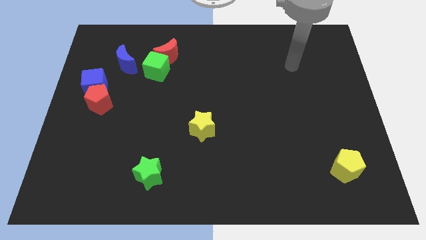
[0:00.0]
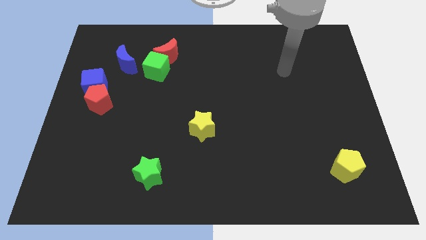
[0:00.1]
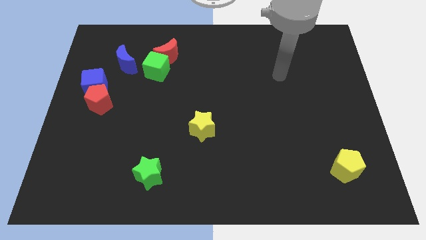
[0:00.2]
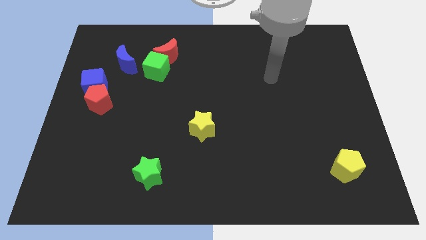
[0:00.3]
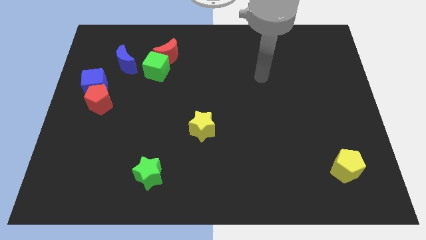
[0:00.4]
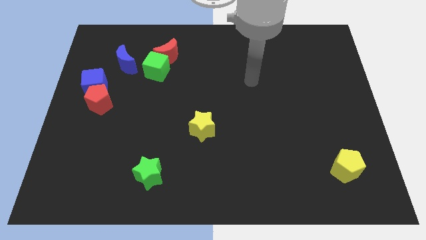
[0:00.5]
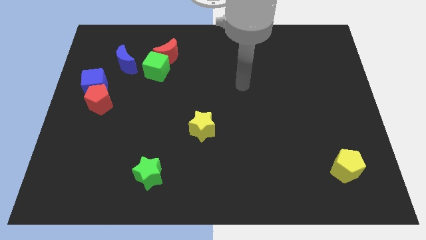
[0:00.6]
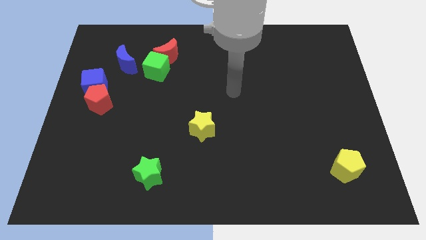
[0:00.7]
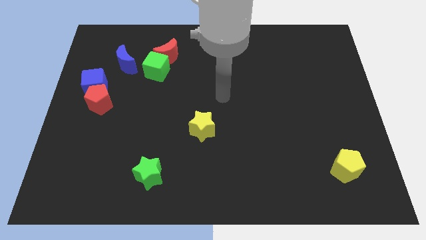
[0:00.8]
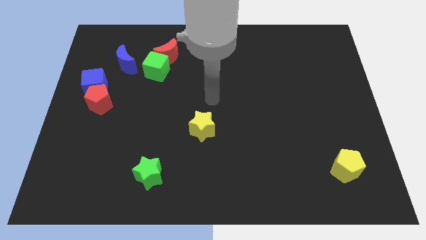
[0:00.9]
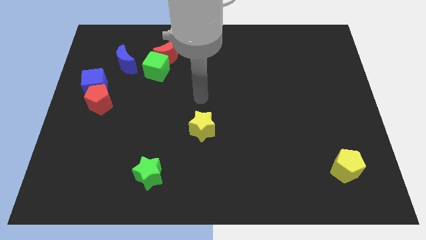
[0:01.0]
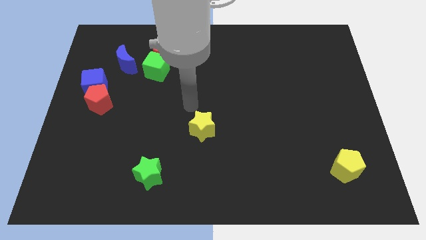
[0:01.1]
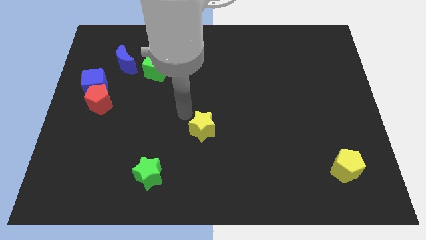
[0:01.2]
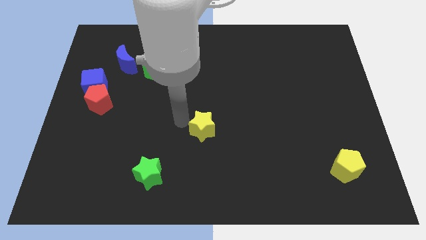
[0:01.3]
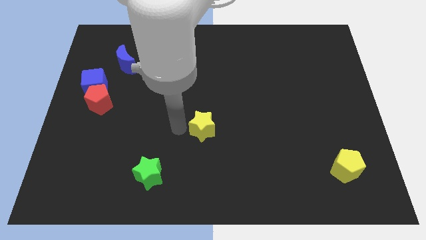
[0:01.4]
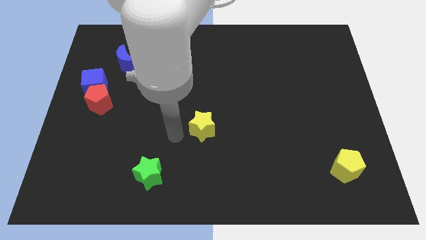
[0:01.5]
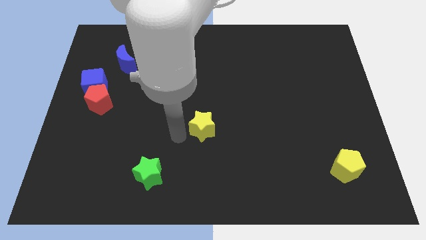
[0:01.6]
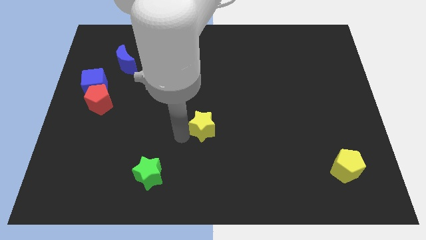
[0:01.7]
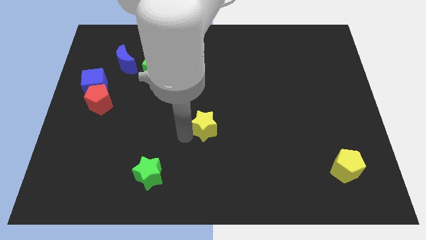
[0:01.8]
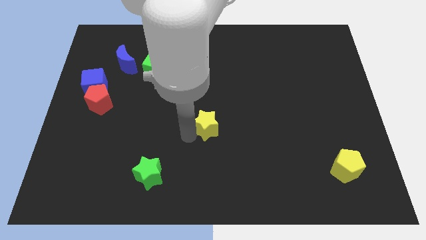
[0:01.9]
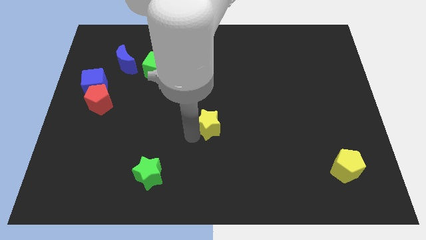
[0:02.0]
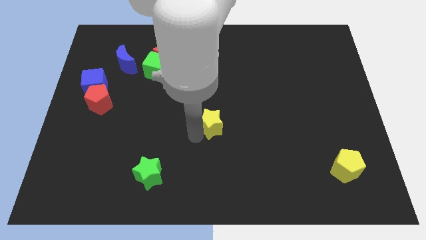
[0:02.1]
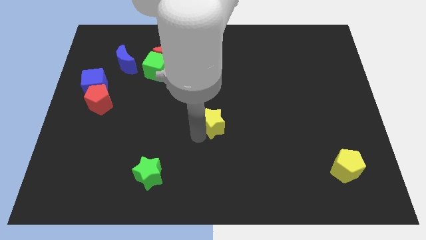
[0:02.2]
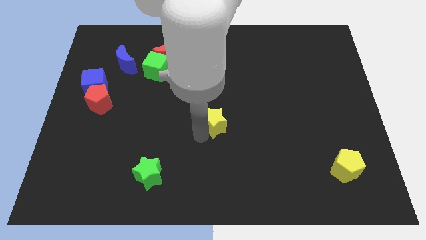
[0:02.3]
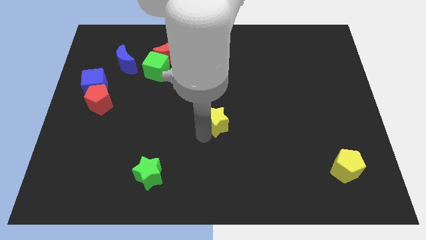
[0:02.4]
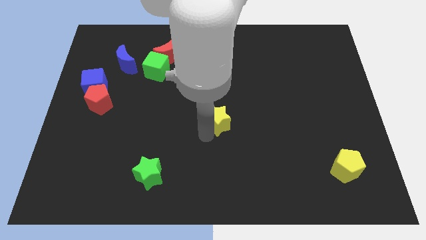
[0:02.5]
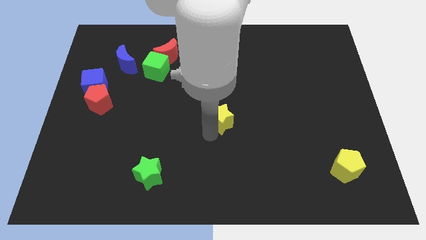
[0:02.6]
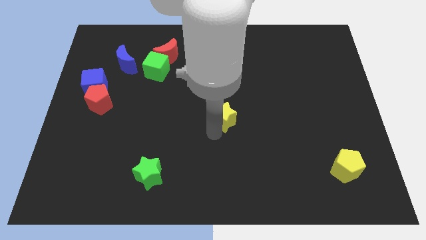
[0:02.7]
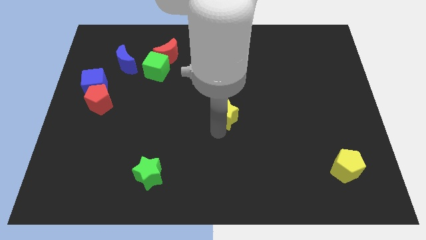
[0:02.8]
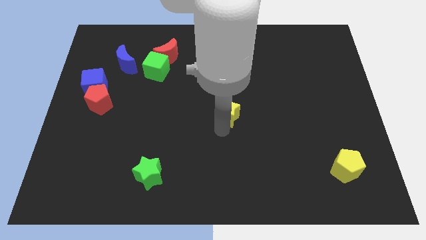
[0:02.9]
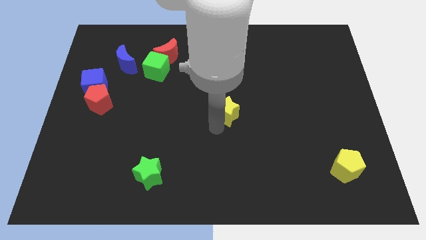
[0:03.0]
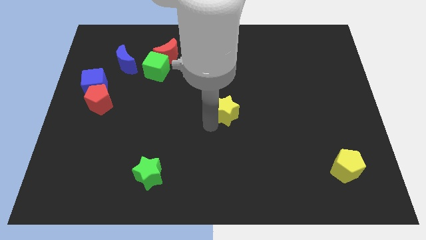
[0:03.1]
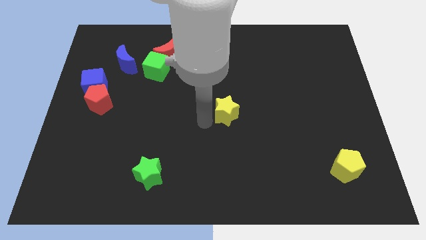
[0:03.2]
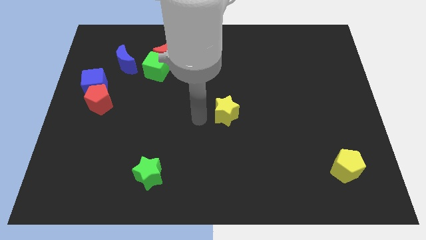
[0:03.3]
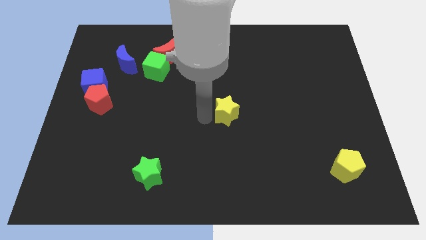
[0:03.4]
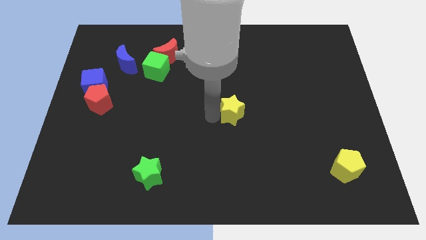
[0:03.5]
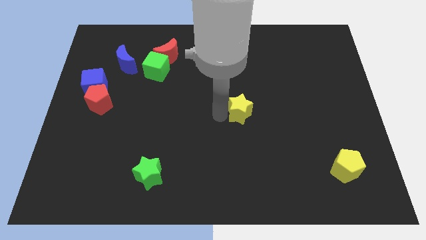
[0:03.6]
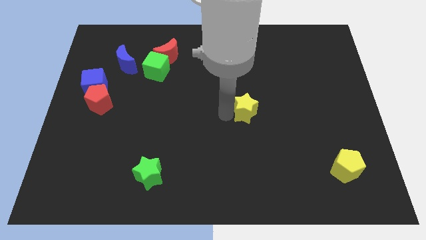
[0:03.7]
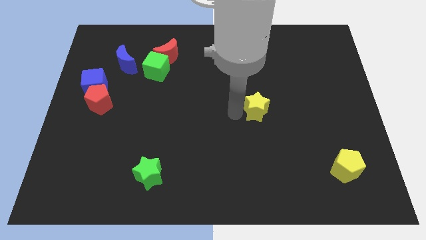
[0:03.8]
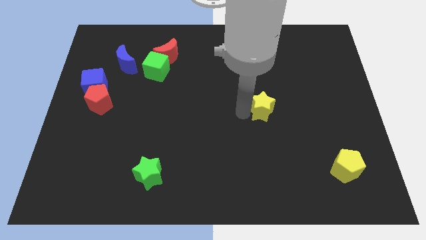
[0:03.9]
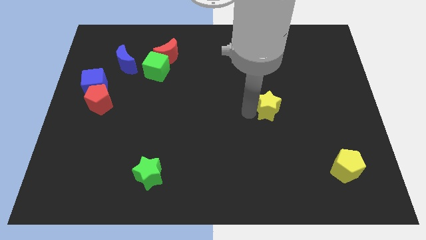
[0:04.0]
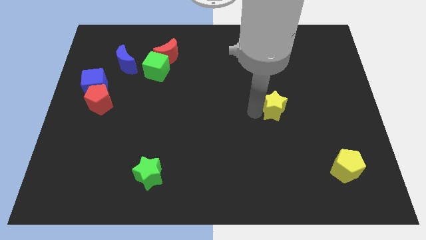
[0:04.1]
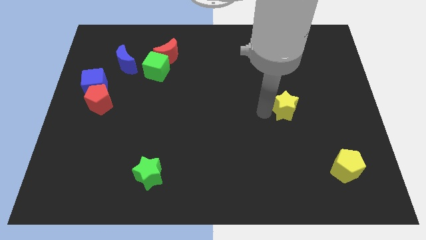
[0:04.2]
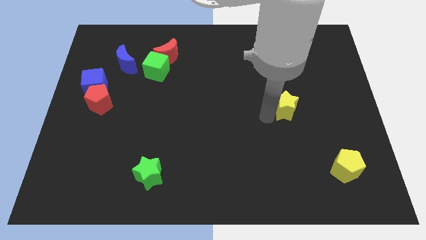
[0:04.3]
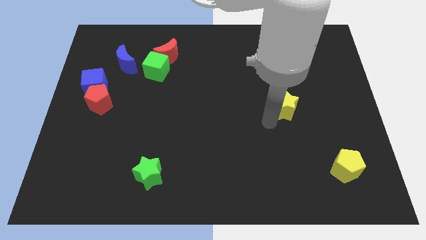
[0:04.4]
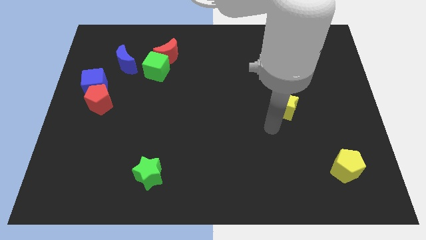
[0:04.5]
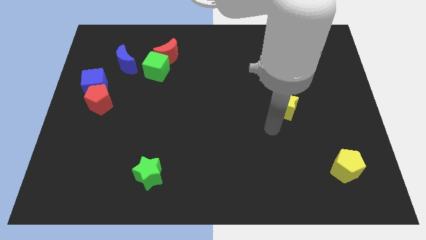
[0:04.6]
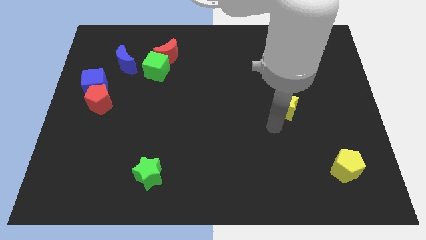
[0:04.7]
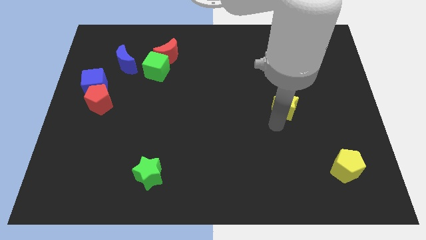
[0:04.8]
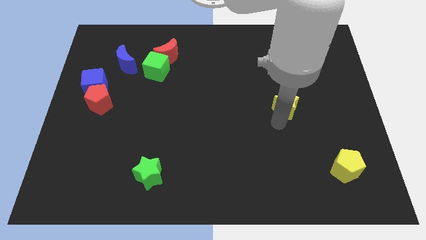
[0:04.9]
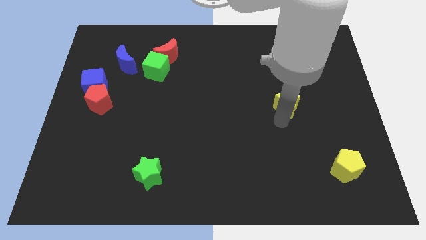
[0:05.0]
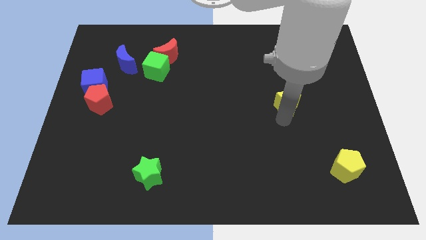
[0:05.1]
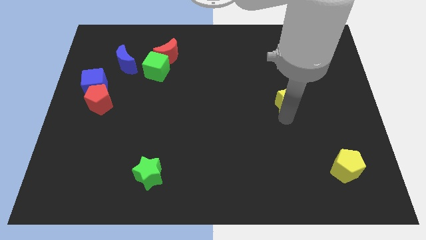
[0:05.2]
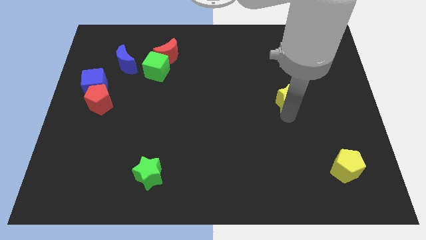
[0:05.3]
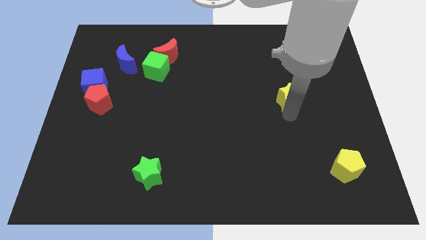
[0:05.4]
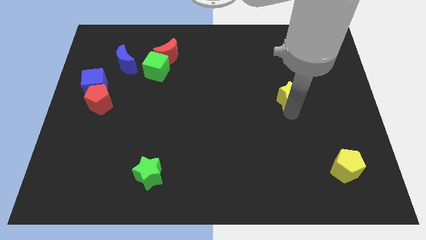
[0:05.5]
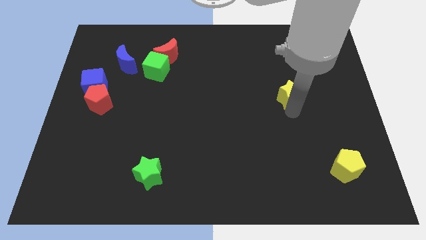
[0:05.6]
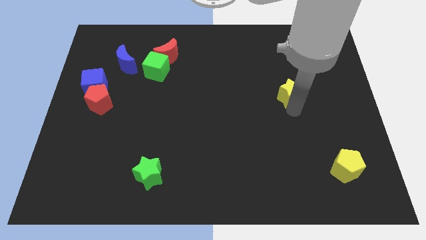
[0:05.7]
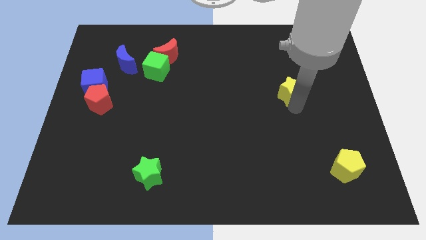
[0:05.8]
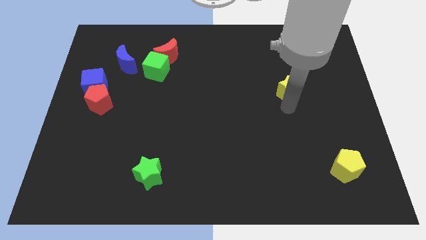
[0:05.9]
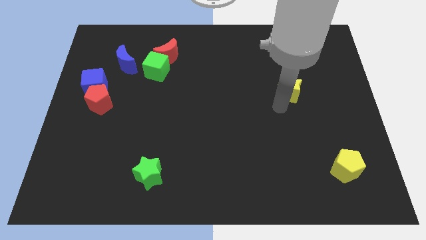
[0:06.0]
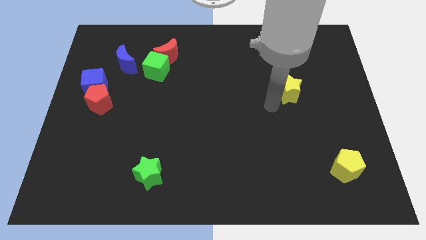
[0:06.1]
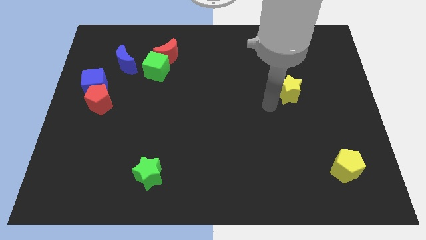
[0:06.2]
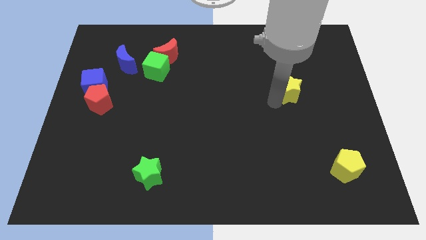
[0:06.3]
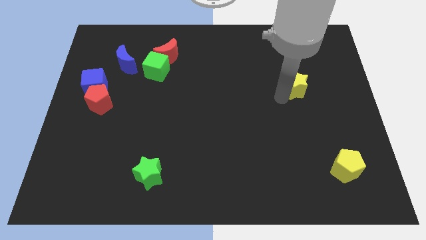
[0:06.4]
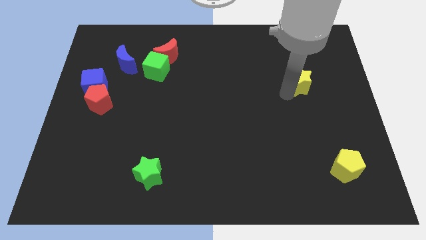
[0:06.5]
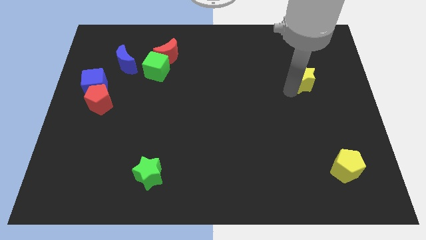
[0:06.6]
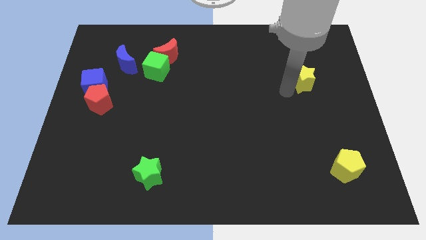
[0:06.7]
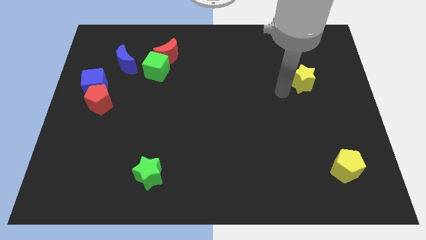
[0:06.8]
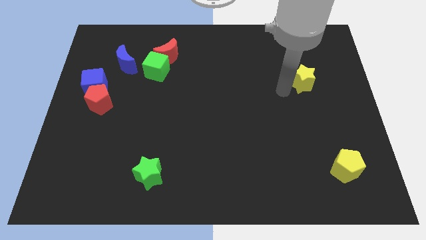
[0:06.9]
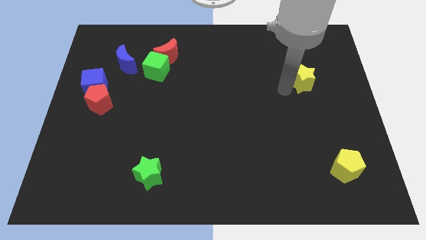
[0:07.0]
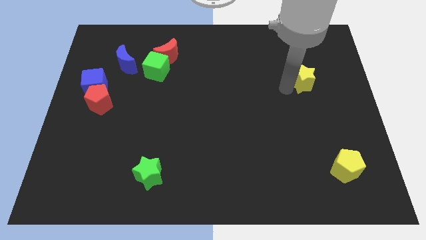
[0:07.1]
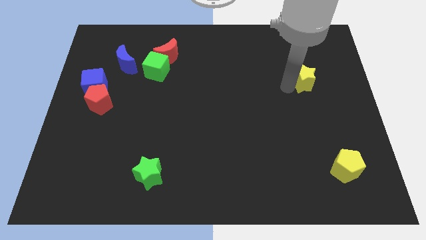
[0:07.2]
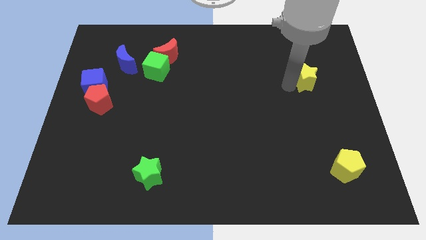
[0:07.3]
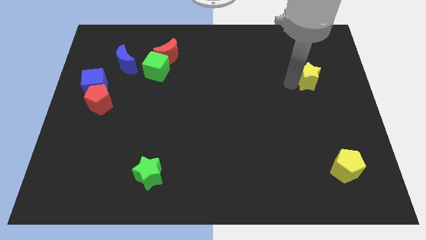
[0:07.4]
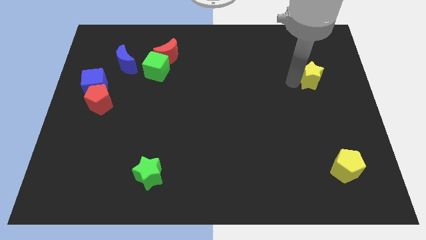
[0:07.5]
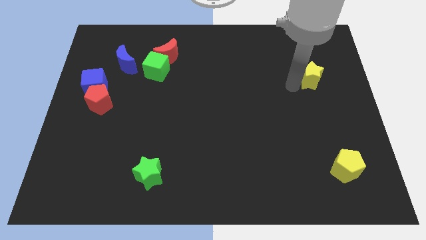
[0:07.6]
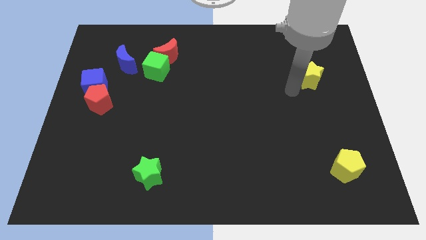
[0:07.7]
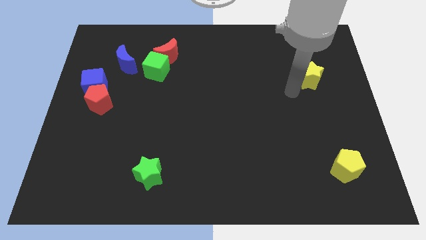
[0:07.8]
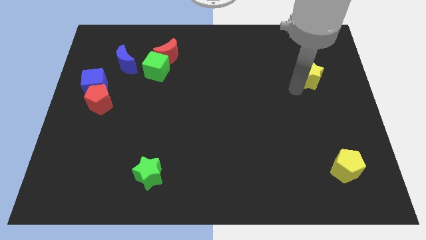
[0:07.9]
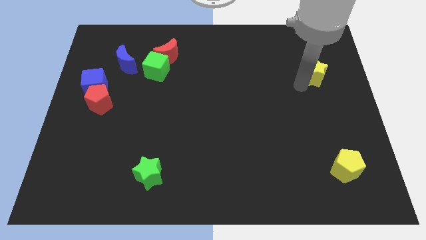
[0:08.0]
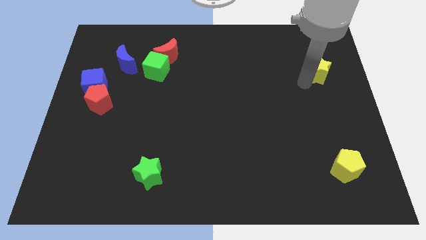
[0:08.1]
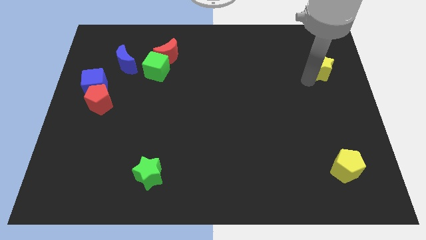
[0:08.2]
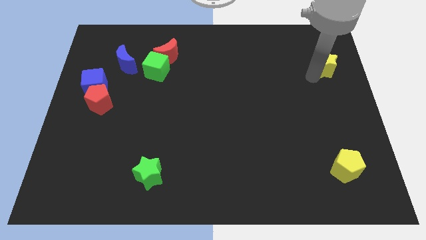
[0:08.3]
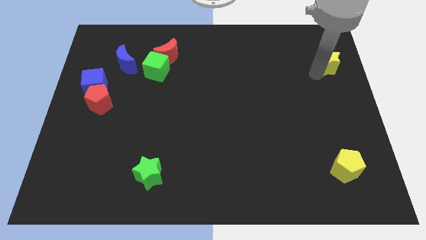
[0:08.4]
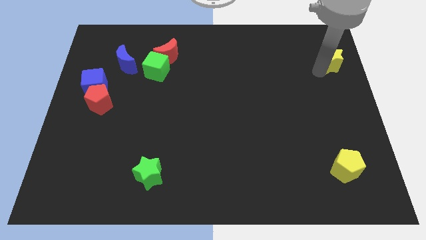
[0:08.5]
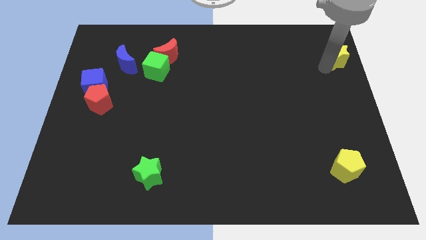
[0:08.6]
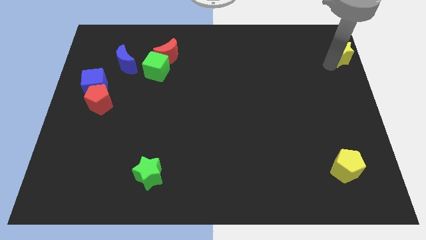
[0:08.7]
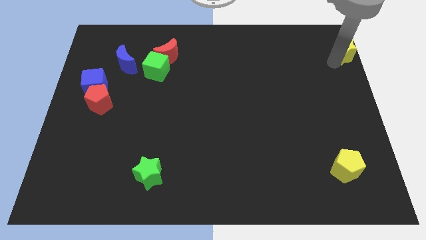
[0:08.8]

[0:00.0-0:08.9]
push the yellow star to the top right of the board
